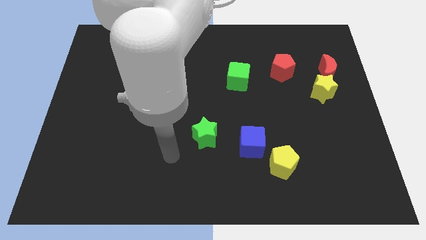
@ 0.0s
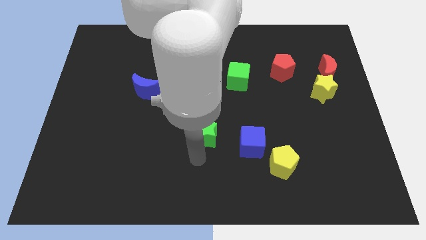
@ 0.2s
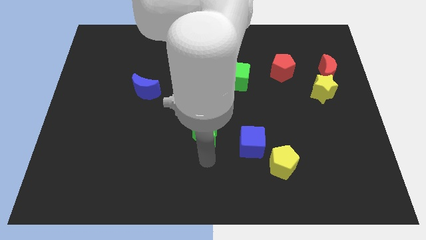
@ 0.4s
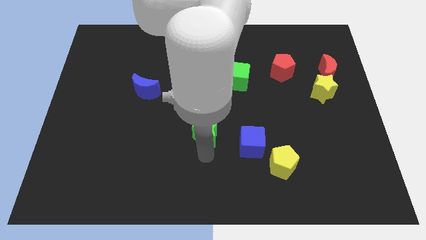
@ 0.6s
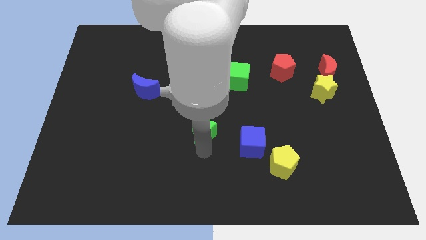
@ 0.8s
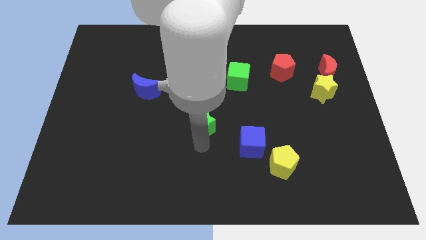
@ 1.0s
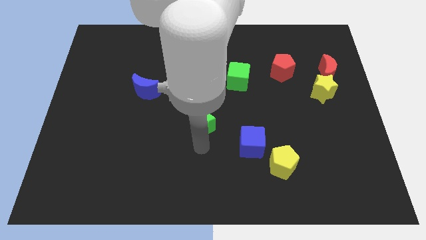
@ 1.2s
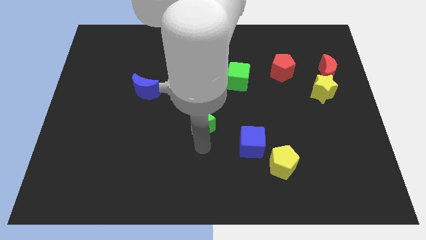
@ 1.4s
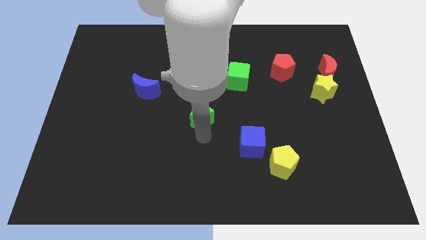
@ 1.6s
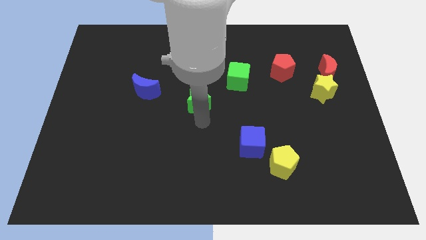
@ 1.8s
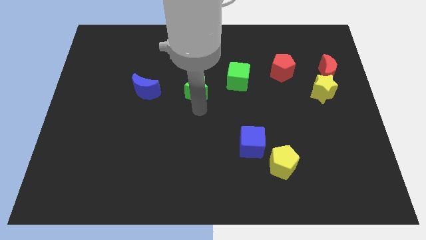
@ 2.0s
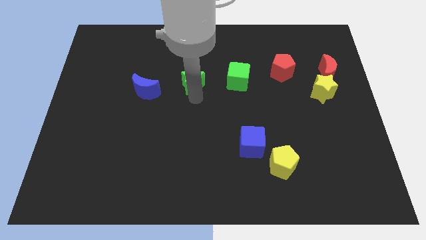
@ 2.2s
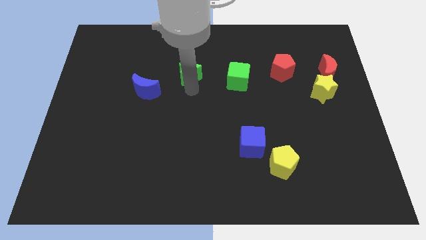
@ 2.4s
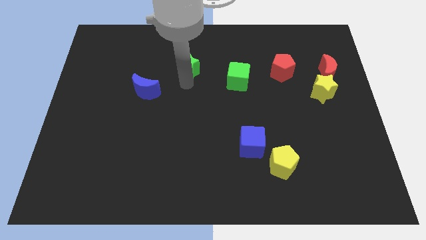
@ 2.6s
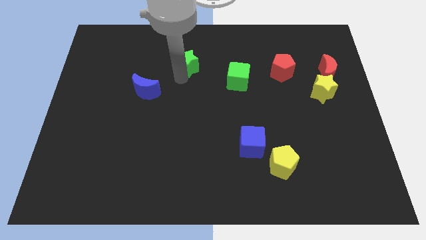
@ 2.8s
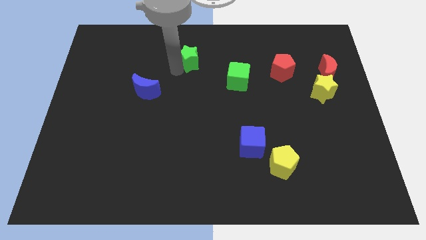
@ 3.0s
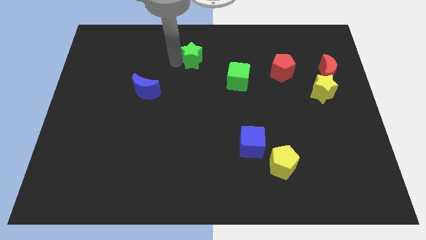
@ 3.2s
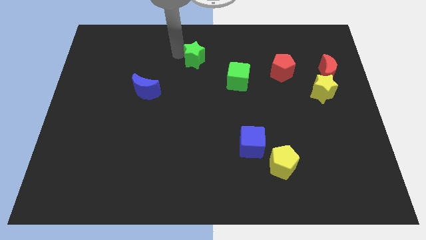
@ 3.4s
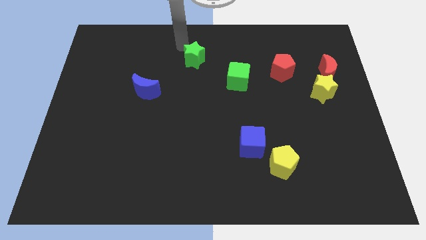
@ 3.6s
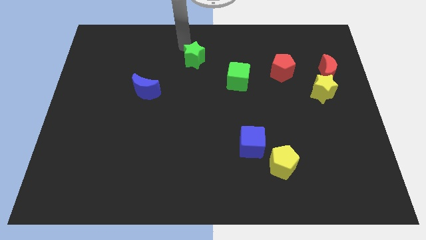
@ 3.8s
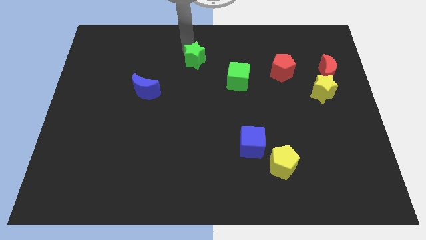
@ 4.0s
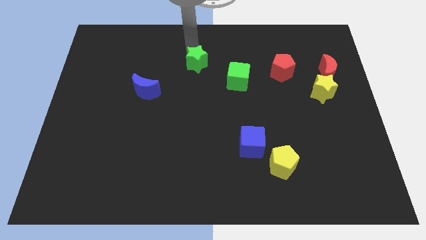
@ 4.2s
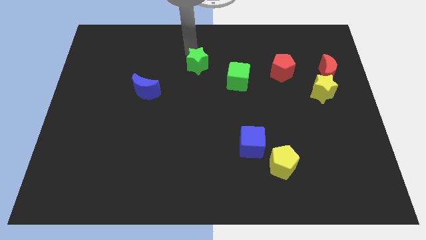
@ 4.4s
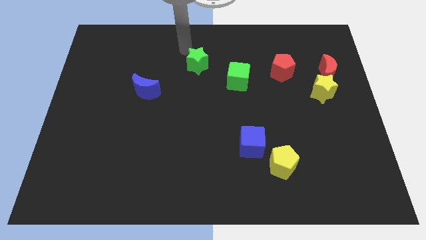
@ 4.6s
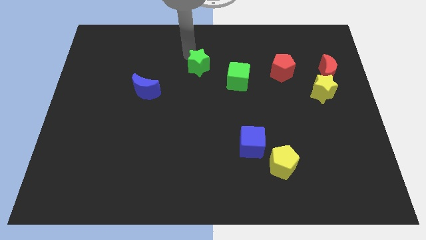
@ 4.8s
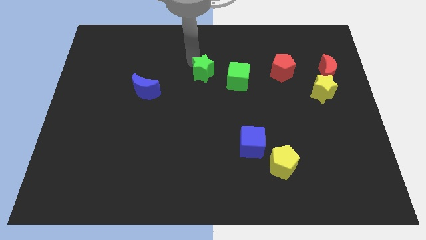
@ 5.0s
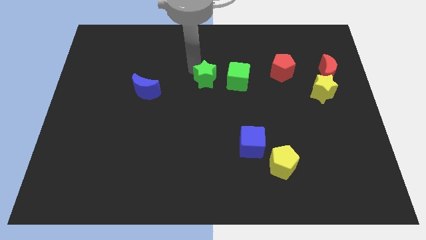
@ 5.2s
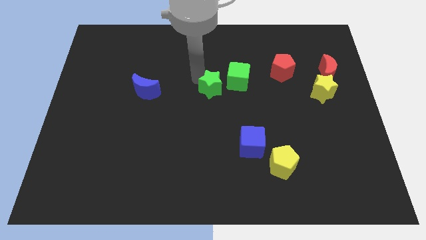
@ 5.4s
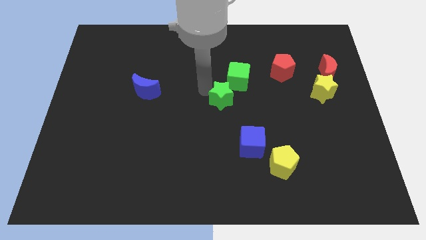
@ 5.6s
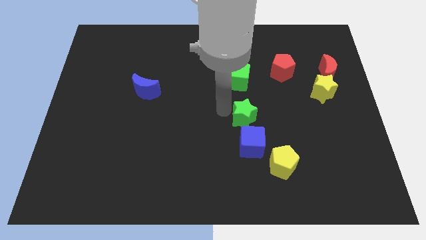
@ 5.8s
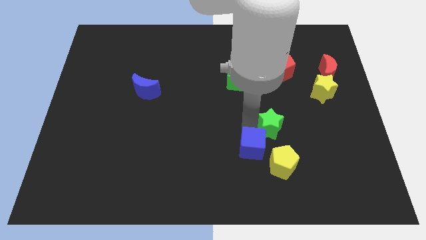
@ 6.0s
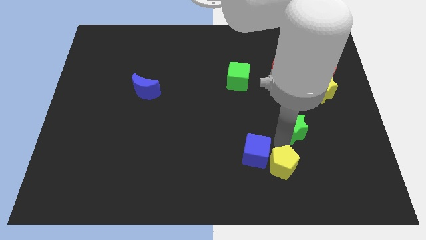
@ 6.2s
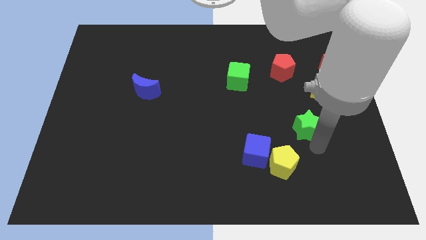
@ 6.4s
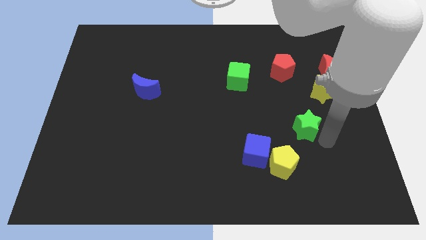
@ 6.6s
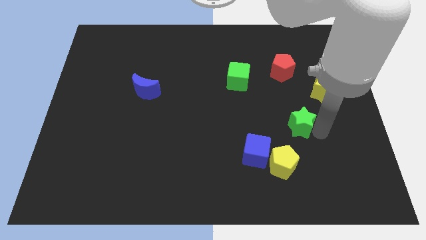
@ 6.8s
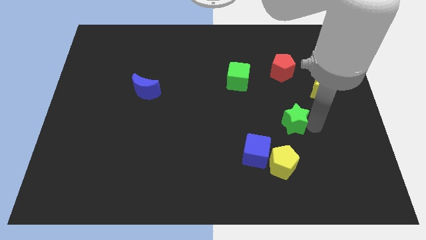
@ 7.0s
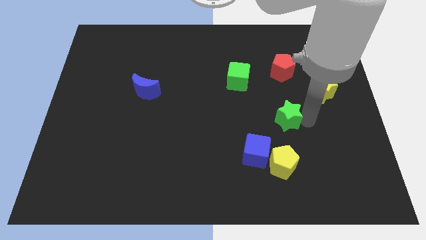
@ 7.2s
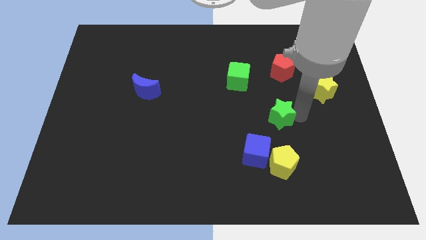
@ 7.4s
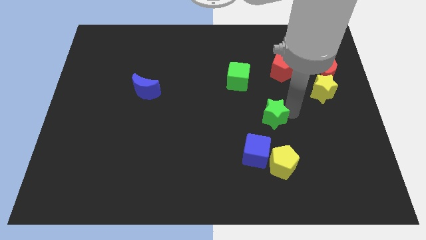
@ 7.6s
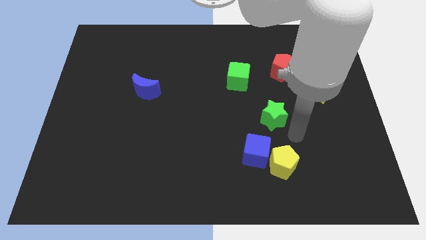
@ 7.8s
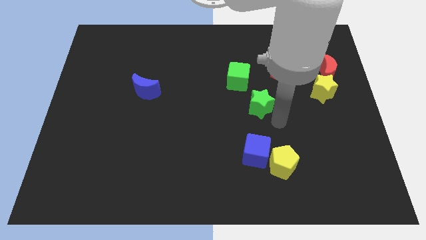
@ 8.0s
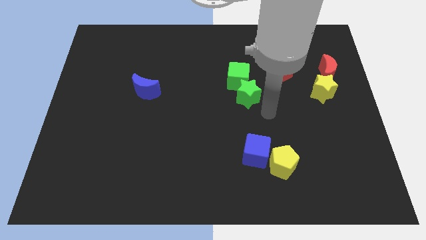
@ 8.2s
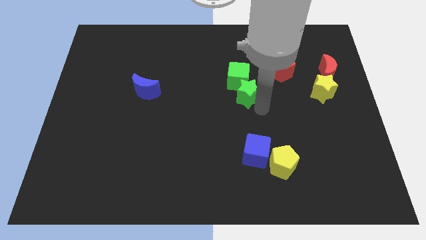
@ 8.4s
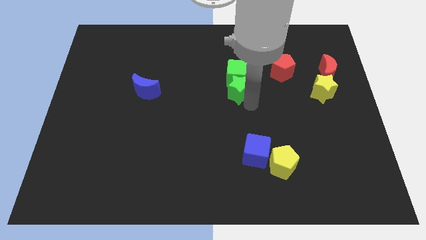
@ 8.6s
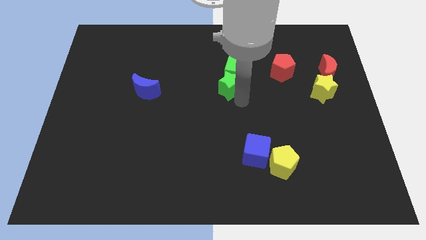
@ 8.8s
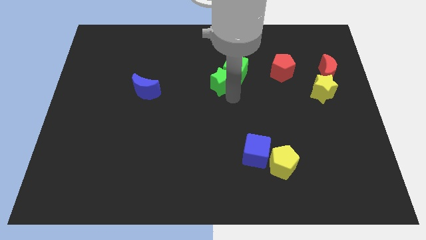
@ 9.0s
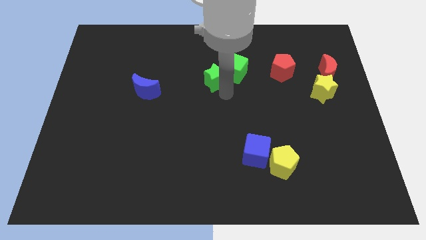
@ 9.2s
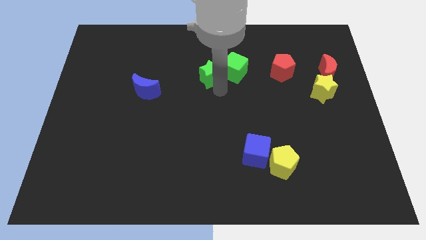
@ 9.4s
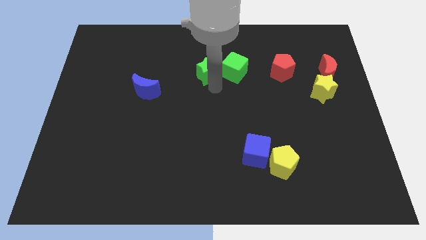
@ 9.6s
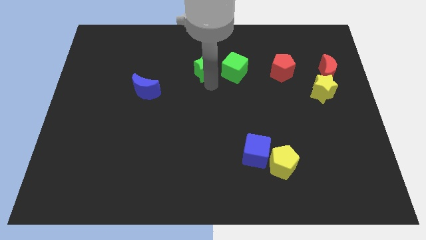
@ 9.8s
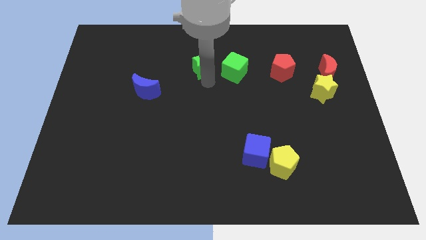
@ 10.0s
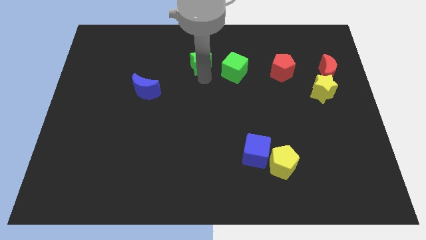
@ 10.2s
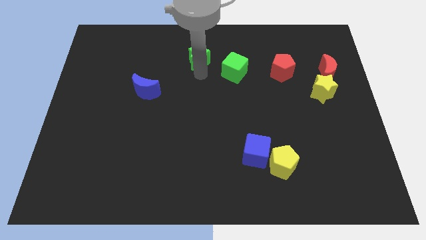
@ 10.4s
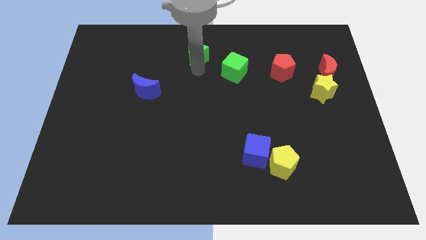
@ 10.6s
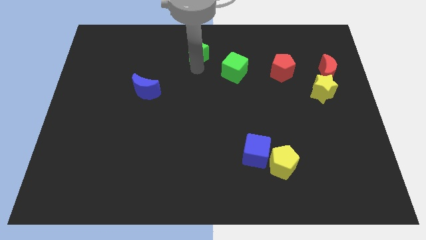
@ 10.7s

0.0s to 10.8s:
slide the green star to the top
